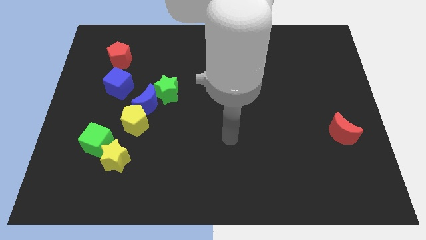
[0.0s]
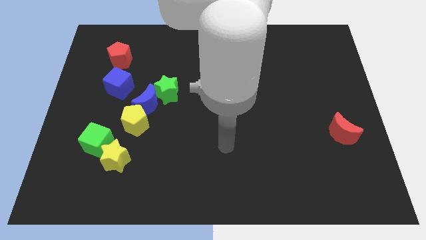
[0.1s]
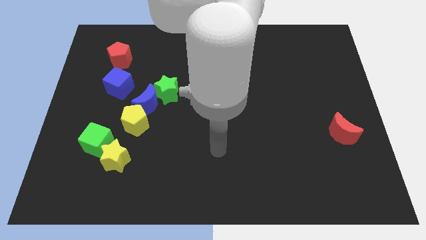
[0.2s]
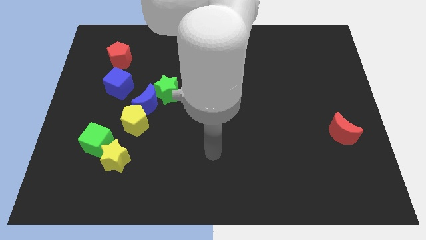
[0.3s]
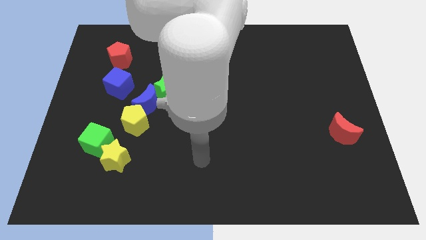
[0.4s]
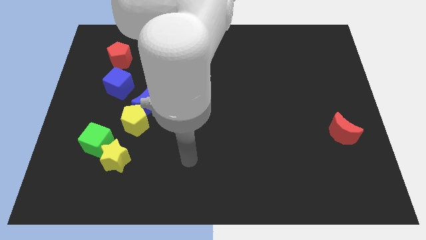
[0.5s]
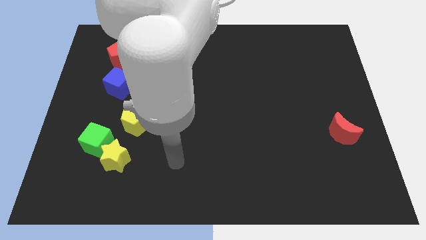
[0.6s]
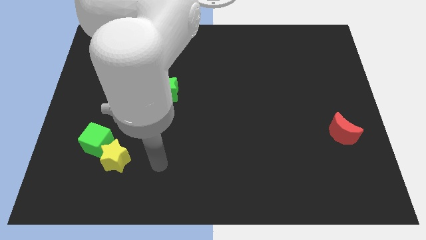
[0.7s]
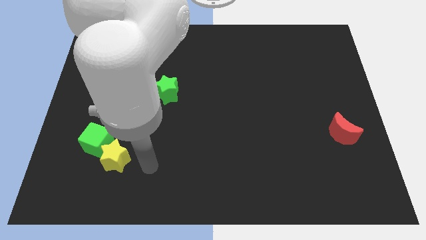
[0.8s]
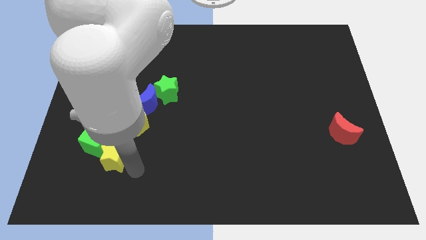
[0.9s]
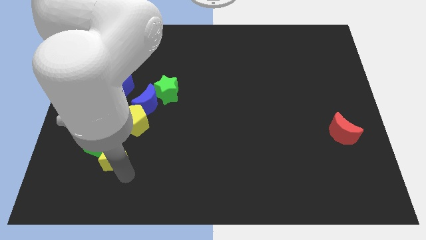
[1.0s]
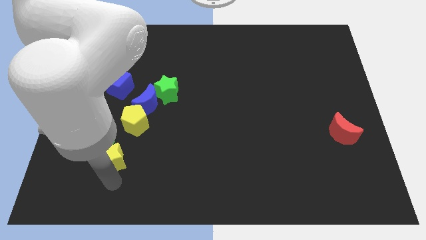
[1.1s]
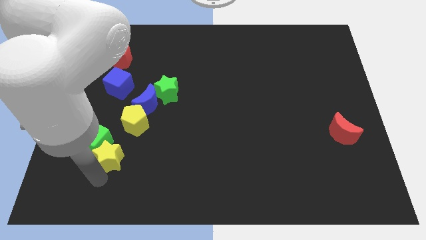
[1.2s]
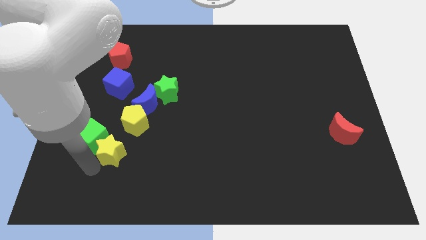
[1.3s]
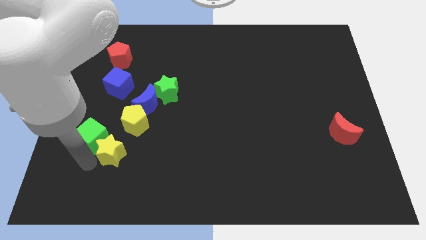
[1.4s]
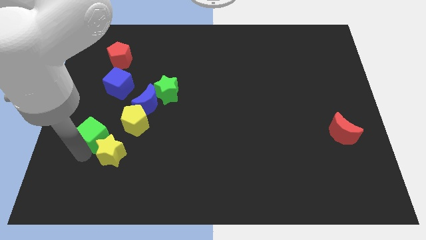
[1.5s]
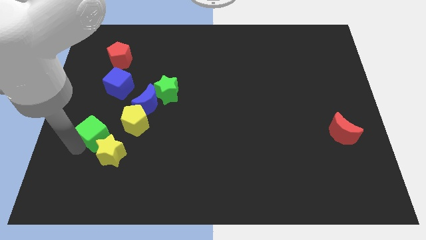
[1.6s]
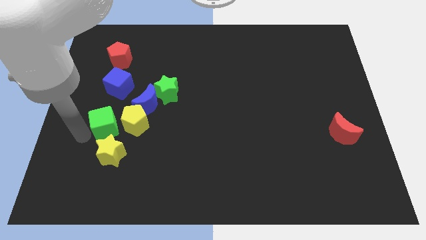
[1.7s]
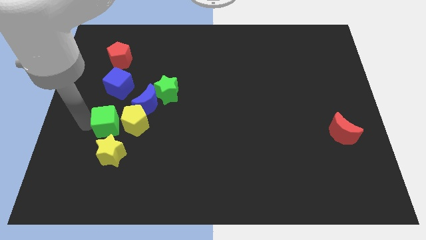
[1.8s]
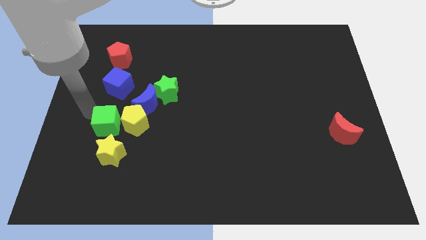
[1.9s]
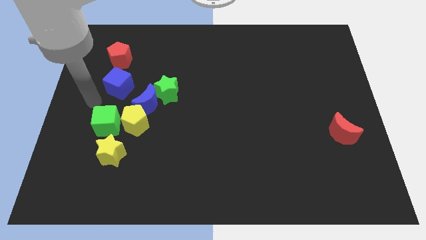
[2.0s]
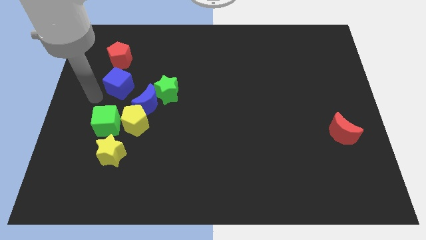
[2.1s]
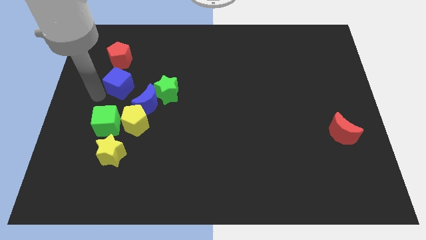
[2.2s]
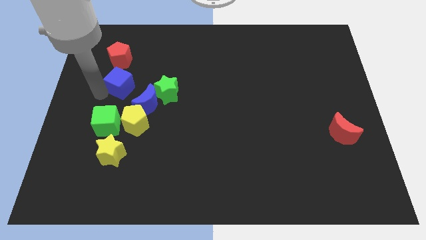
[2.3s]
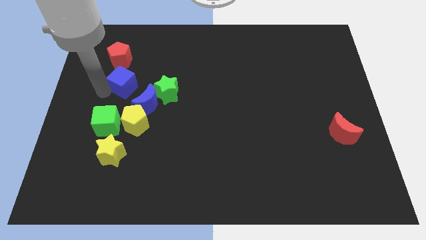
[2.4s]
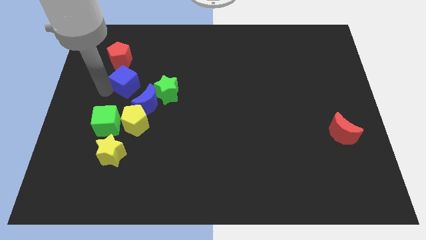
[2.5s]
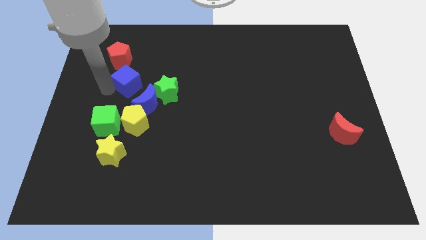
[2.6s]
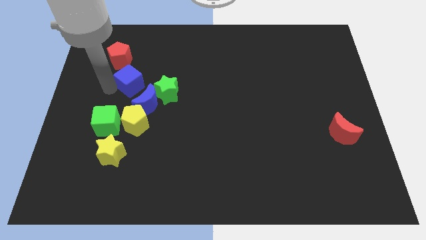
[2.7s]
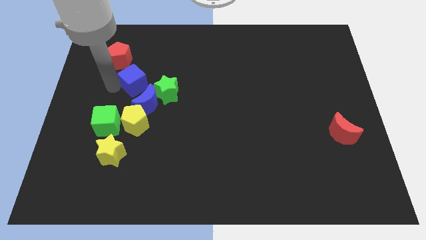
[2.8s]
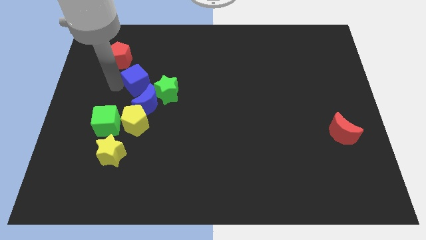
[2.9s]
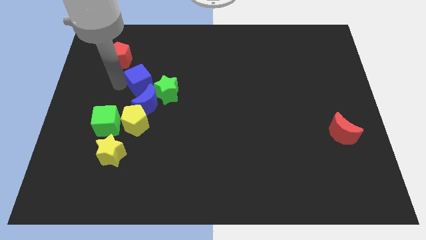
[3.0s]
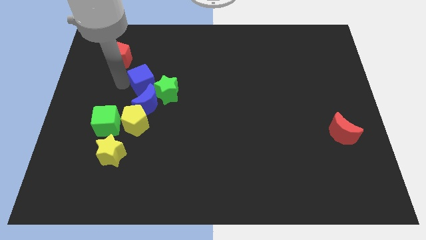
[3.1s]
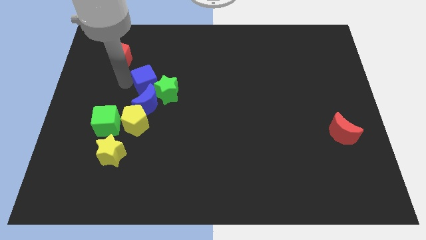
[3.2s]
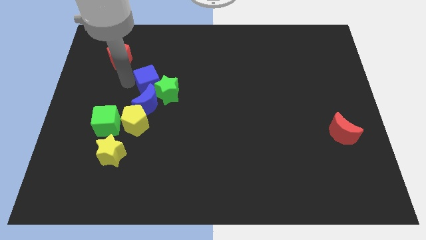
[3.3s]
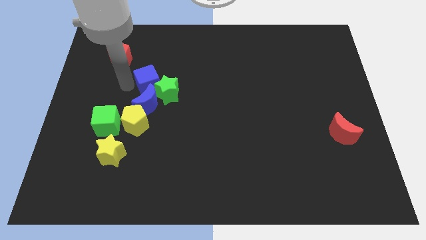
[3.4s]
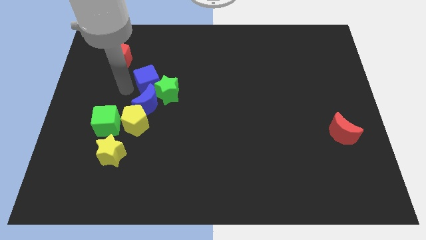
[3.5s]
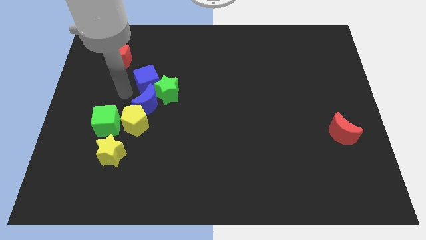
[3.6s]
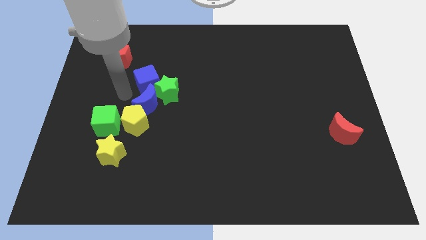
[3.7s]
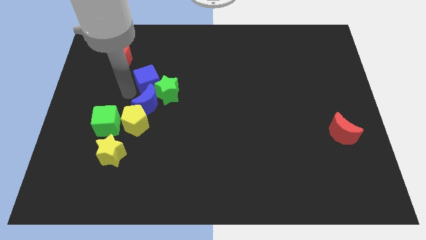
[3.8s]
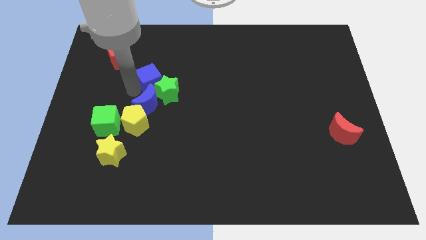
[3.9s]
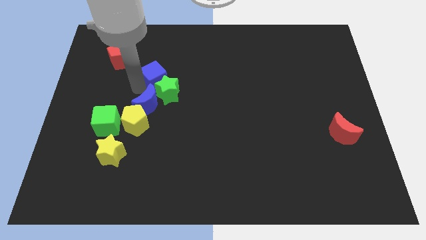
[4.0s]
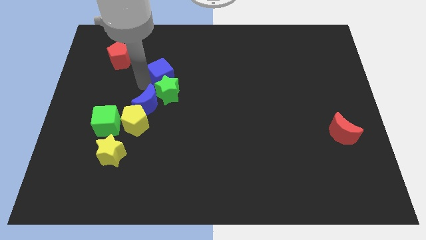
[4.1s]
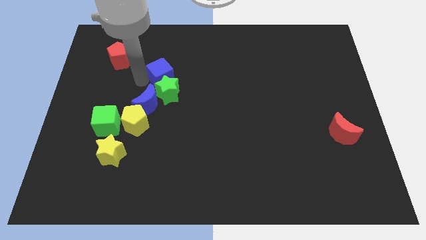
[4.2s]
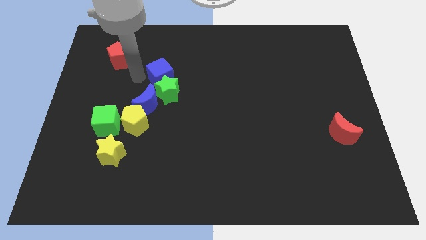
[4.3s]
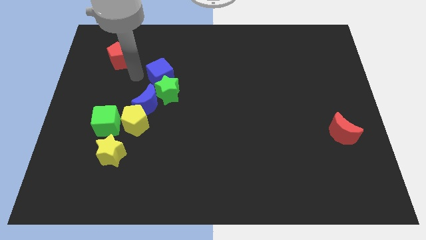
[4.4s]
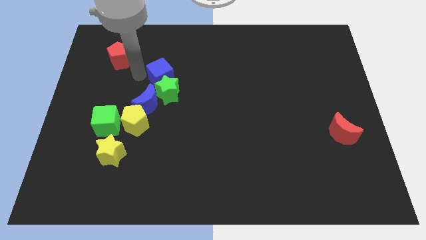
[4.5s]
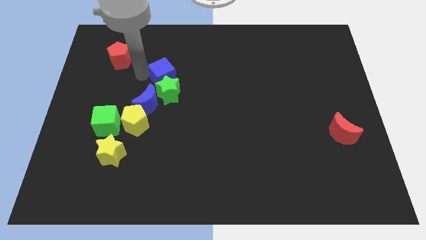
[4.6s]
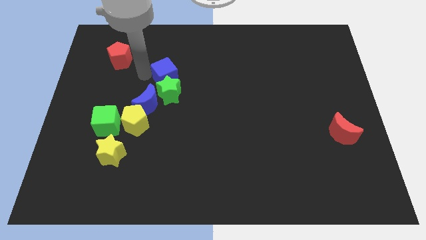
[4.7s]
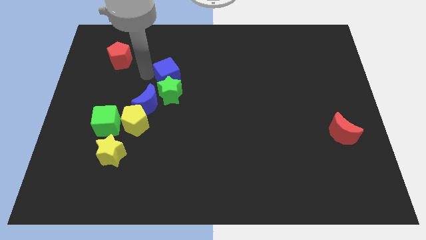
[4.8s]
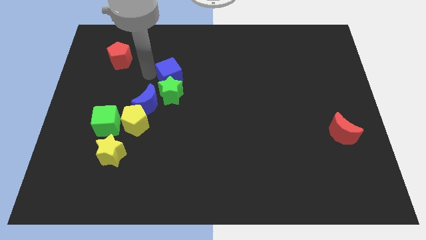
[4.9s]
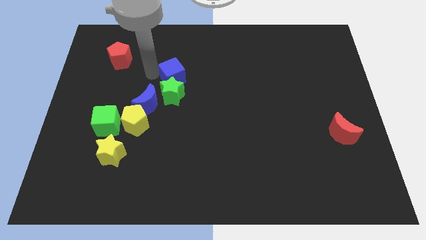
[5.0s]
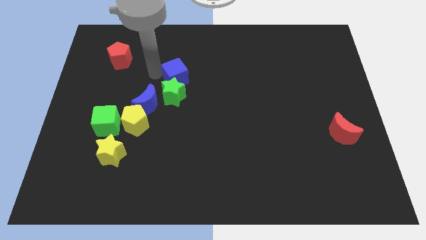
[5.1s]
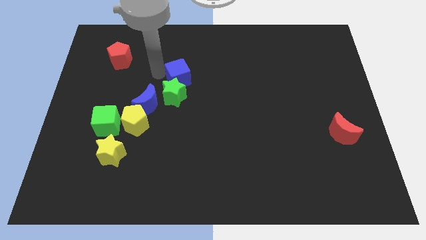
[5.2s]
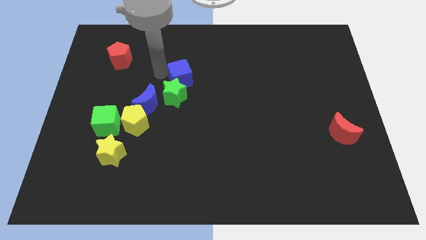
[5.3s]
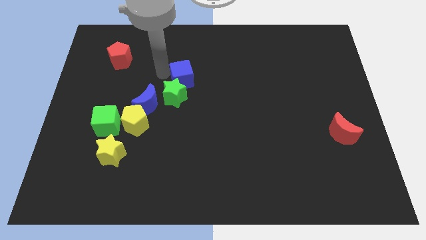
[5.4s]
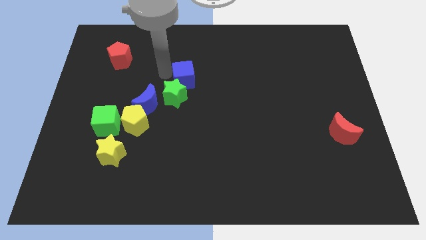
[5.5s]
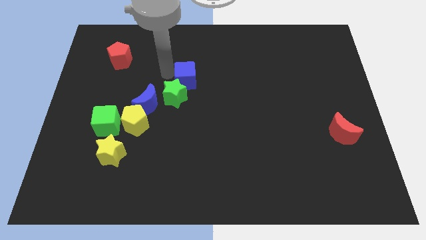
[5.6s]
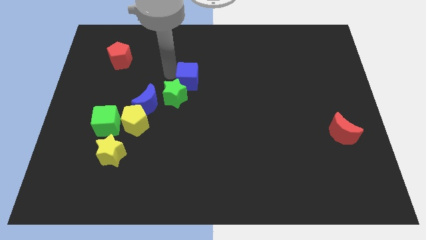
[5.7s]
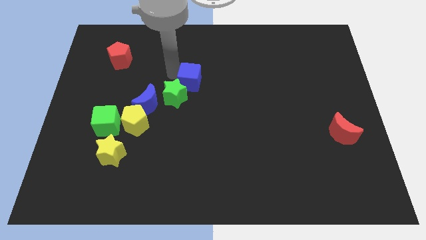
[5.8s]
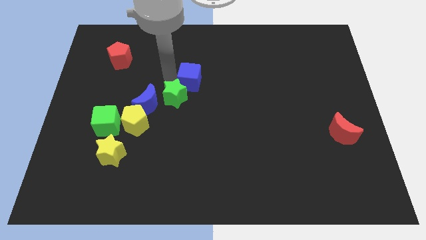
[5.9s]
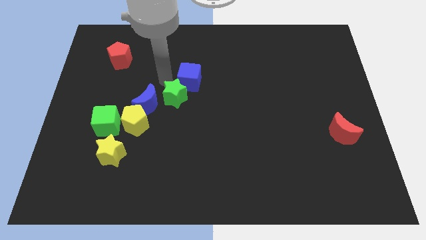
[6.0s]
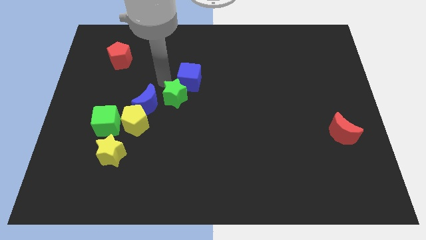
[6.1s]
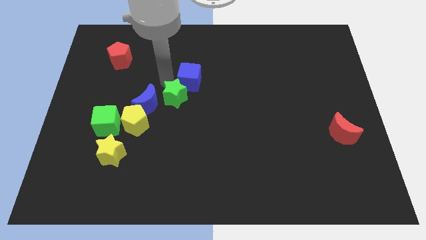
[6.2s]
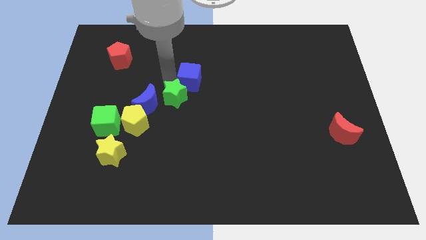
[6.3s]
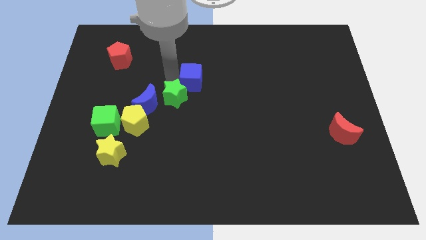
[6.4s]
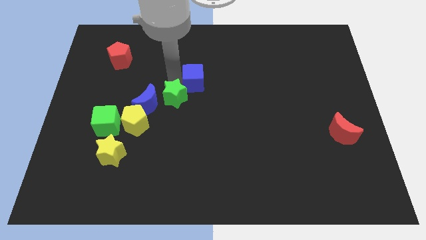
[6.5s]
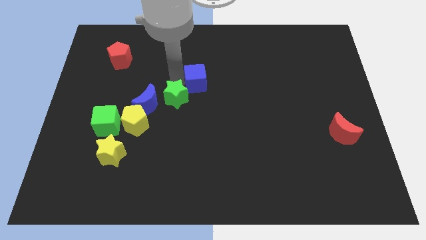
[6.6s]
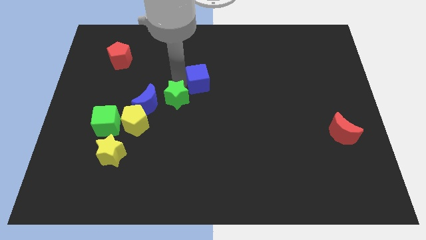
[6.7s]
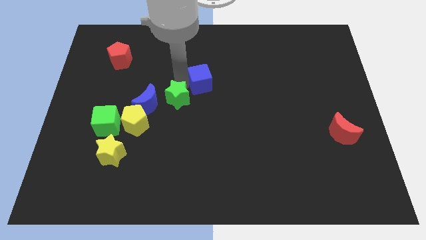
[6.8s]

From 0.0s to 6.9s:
move the blue cube to the right

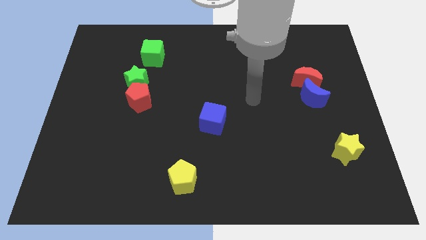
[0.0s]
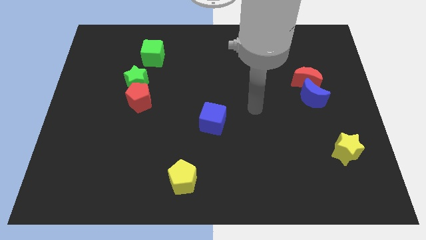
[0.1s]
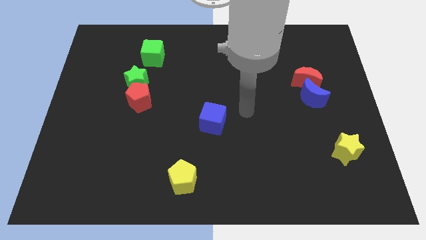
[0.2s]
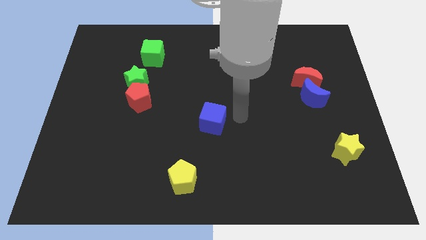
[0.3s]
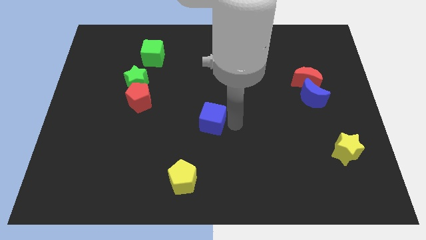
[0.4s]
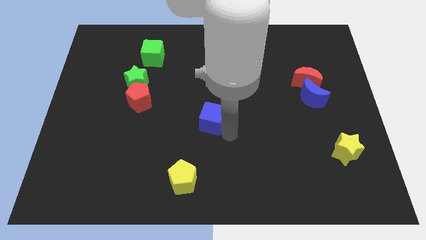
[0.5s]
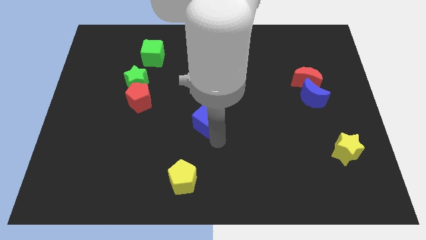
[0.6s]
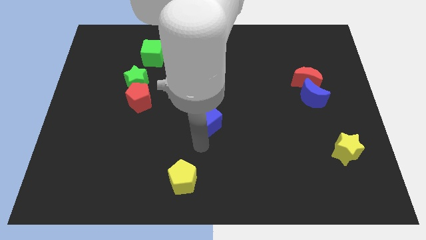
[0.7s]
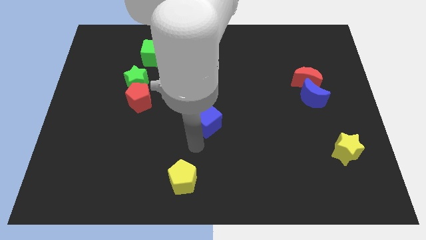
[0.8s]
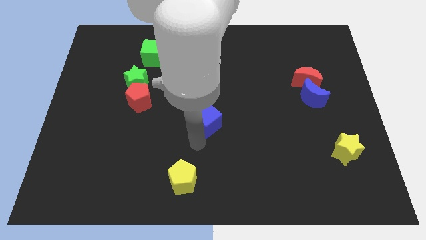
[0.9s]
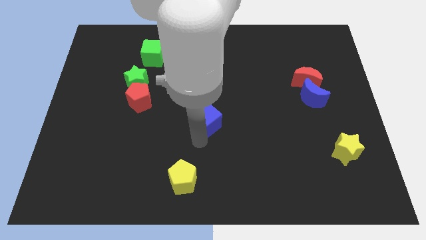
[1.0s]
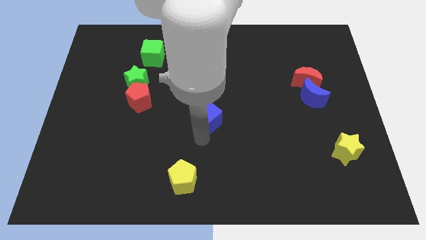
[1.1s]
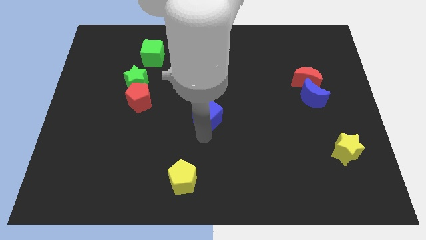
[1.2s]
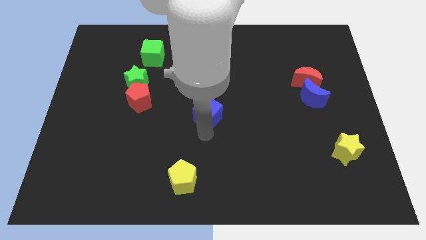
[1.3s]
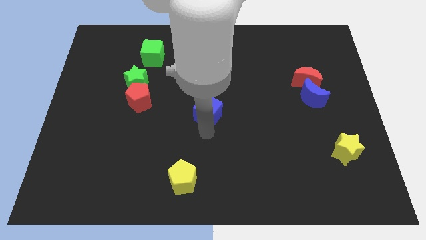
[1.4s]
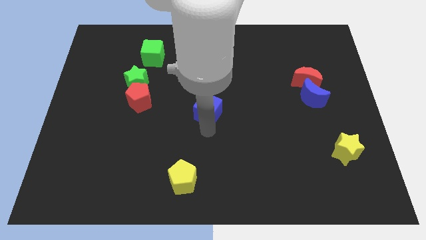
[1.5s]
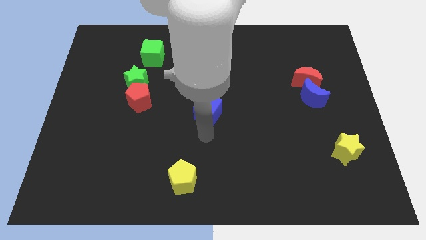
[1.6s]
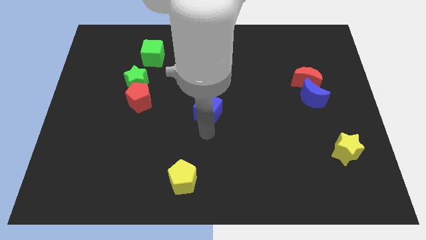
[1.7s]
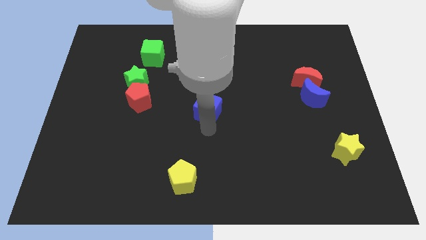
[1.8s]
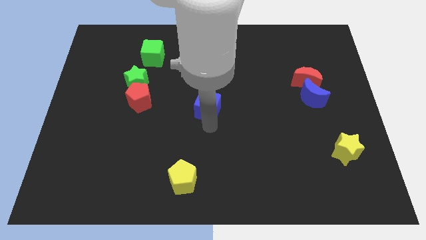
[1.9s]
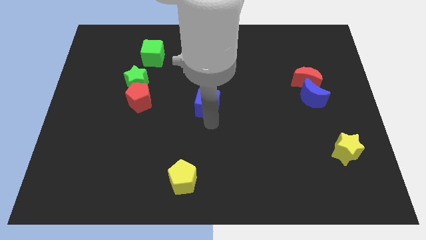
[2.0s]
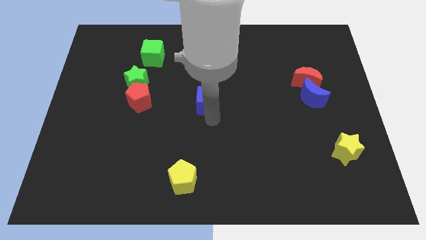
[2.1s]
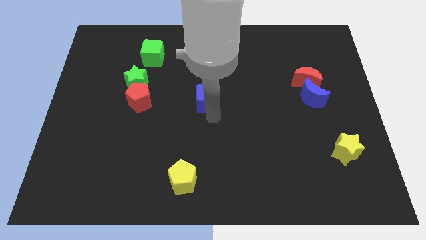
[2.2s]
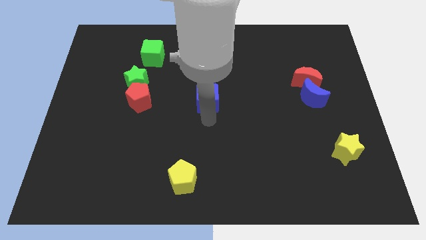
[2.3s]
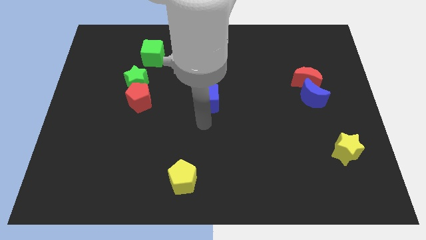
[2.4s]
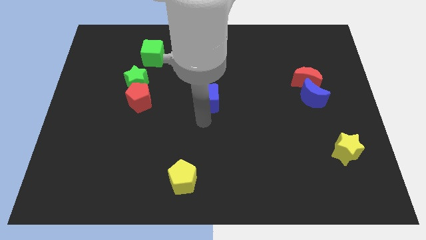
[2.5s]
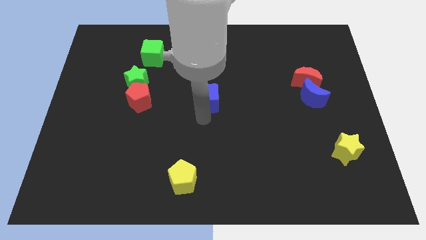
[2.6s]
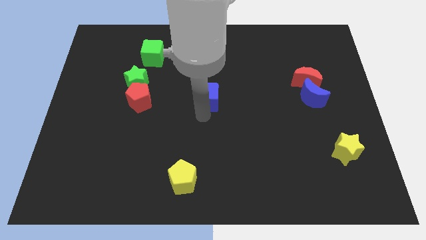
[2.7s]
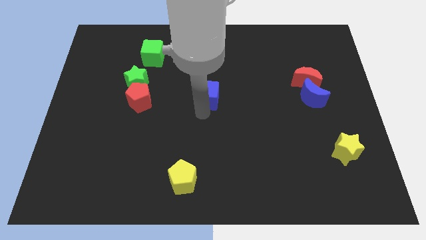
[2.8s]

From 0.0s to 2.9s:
slightly slide the blue cube up
